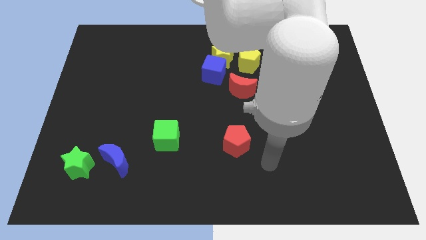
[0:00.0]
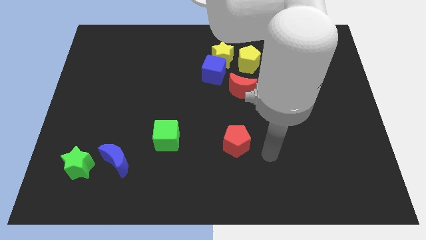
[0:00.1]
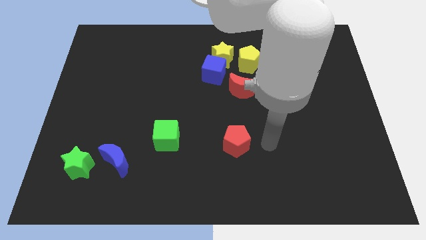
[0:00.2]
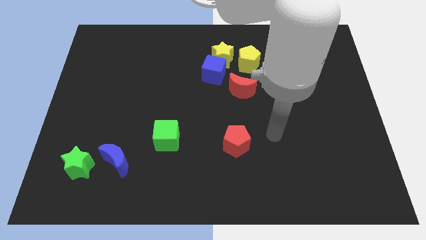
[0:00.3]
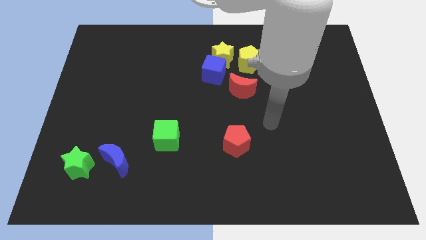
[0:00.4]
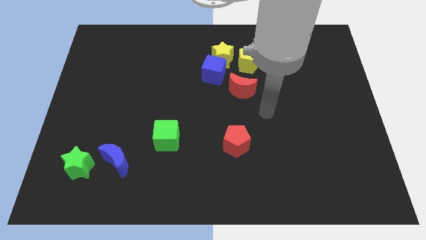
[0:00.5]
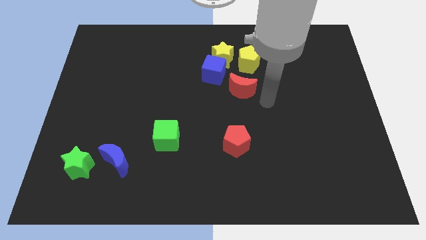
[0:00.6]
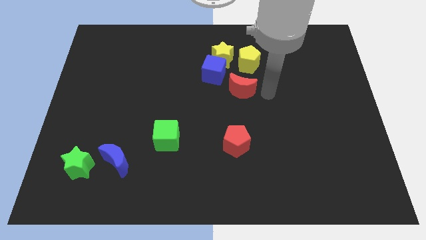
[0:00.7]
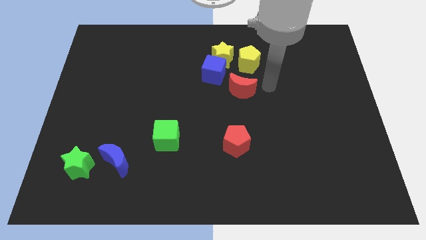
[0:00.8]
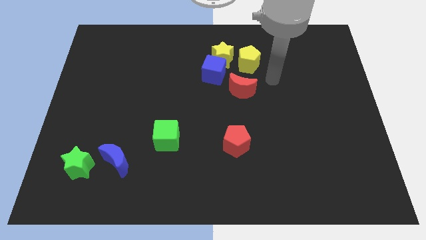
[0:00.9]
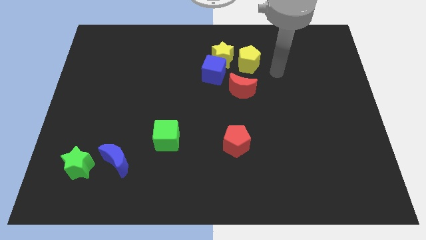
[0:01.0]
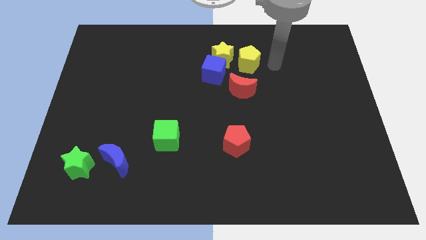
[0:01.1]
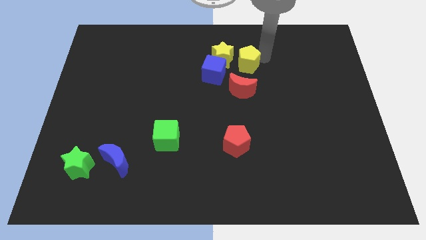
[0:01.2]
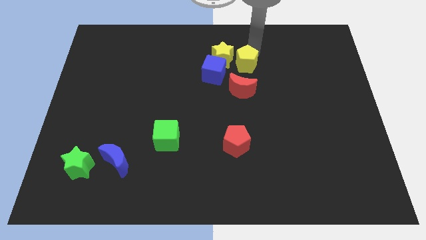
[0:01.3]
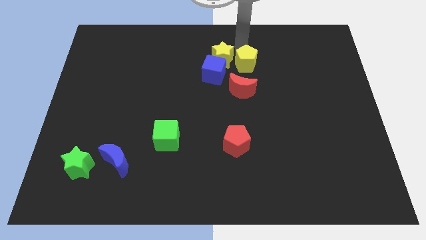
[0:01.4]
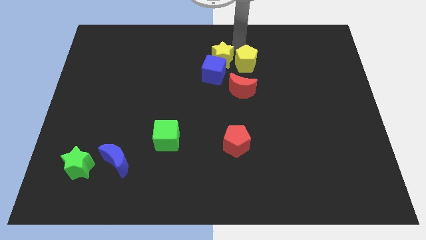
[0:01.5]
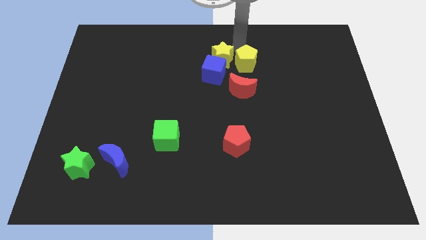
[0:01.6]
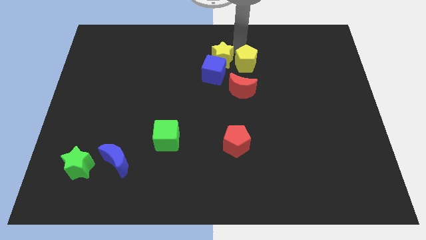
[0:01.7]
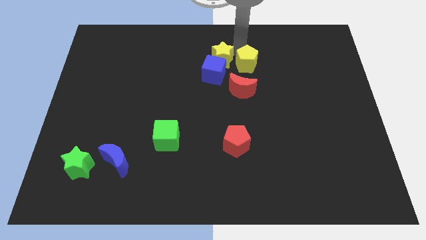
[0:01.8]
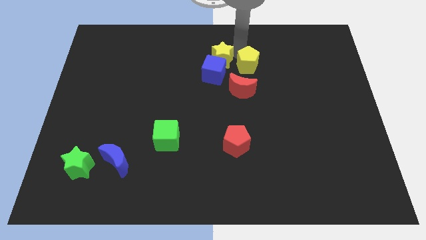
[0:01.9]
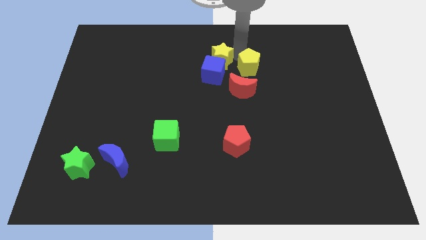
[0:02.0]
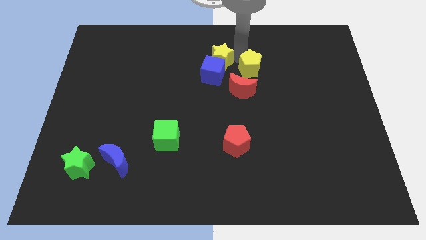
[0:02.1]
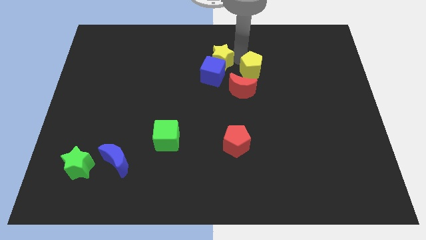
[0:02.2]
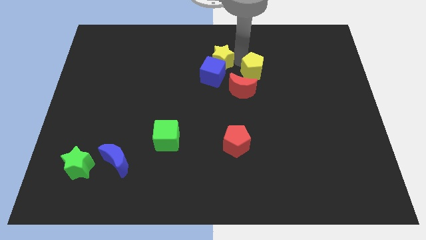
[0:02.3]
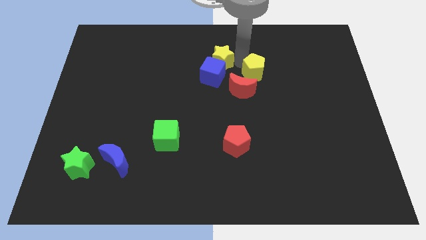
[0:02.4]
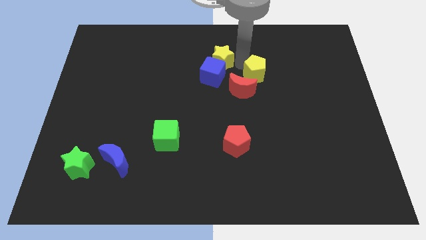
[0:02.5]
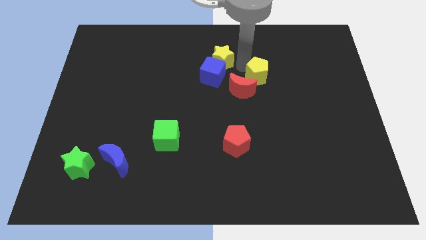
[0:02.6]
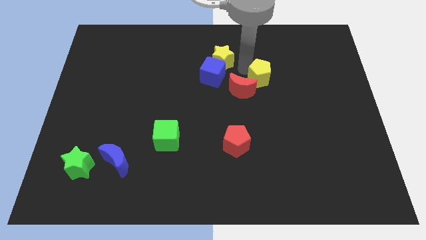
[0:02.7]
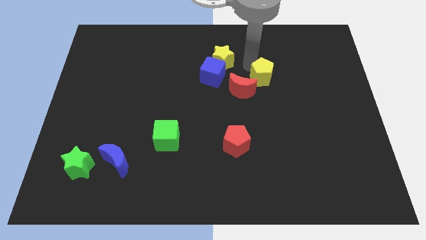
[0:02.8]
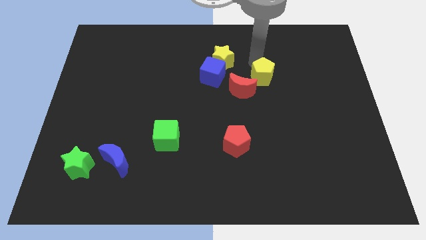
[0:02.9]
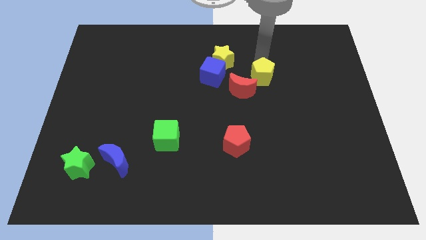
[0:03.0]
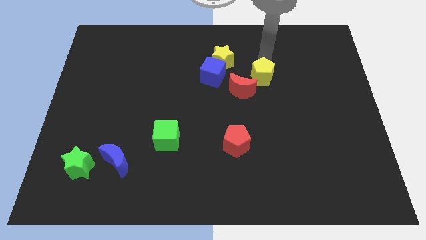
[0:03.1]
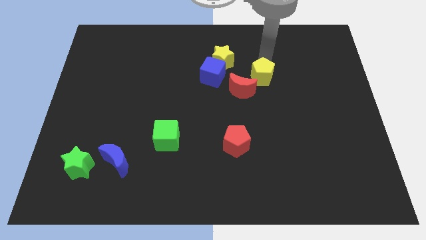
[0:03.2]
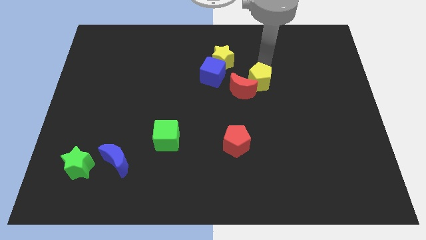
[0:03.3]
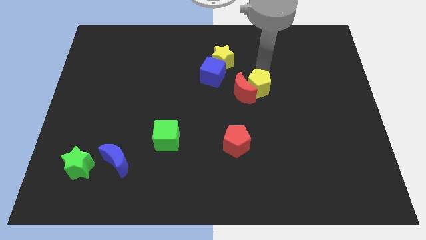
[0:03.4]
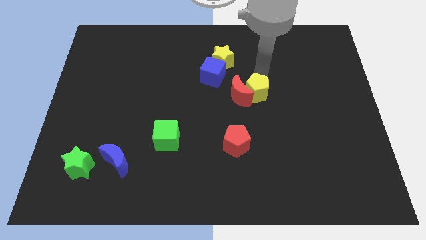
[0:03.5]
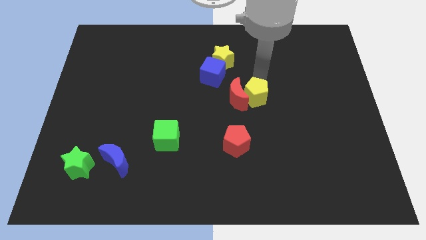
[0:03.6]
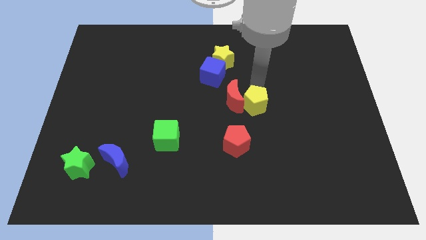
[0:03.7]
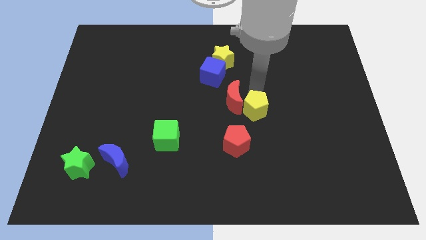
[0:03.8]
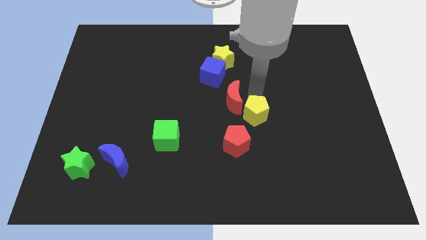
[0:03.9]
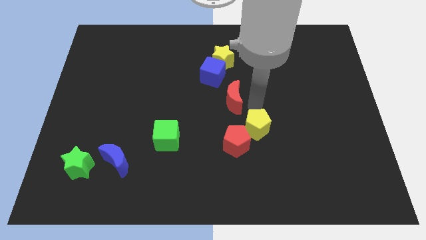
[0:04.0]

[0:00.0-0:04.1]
slide the yellow pentagon downwards

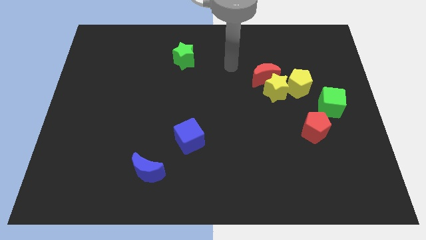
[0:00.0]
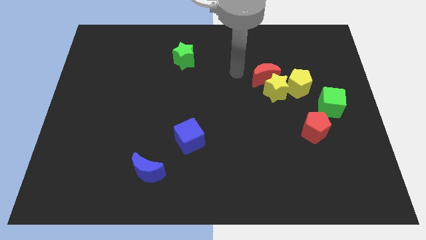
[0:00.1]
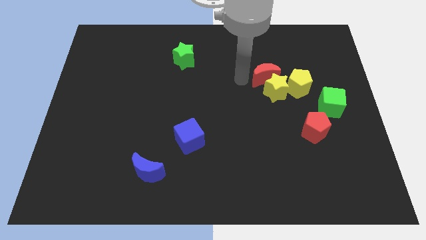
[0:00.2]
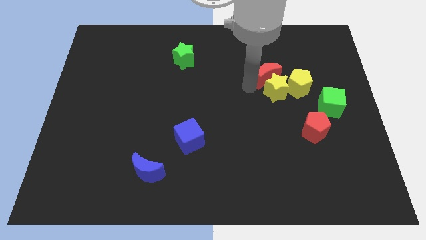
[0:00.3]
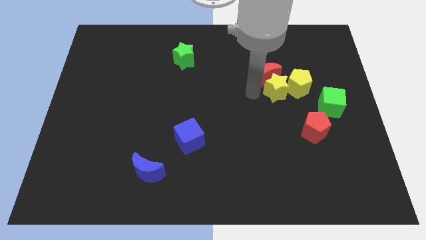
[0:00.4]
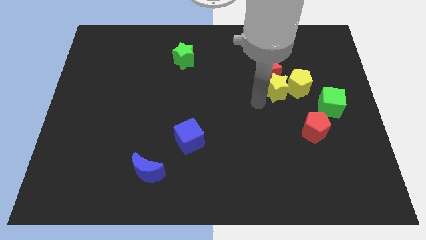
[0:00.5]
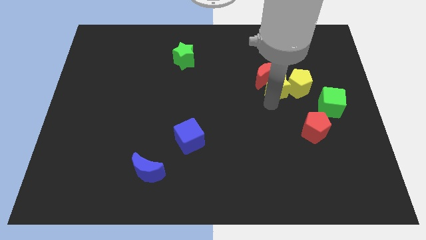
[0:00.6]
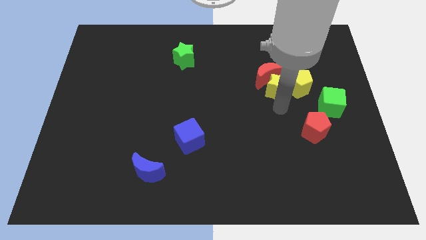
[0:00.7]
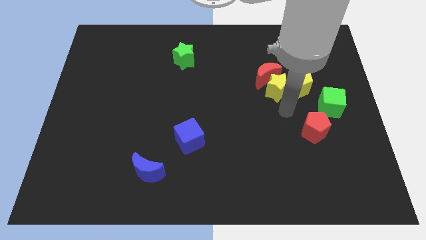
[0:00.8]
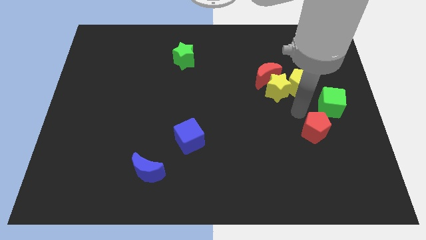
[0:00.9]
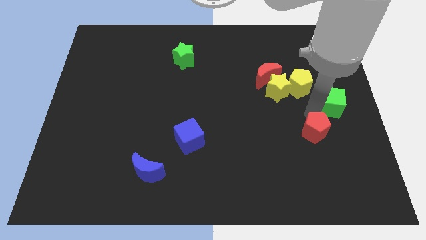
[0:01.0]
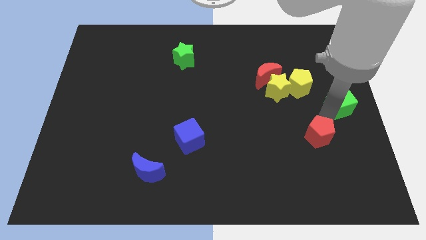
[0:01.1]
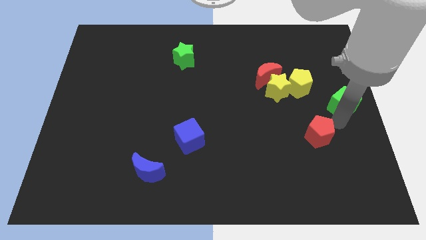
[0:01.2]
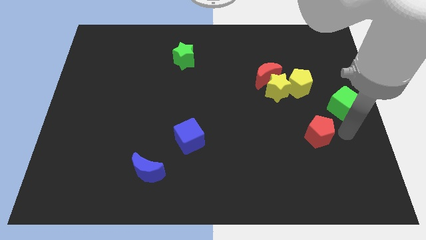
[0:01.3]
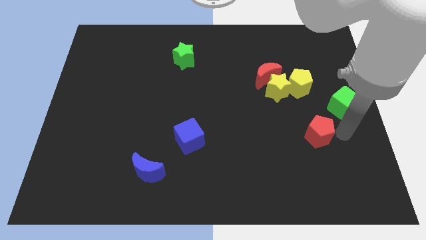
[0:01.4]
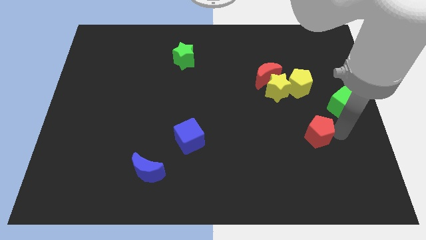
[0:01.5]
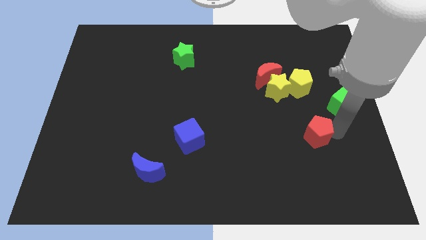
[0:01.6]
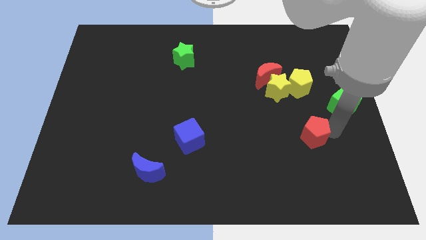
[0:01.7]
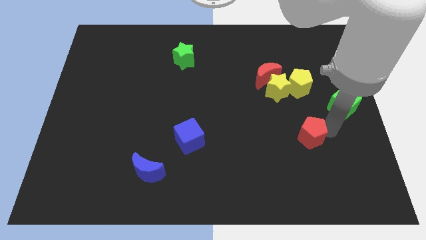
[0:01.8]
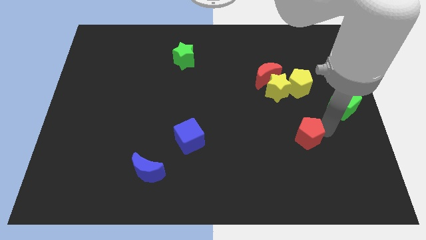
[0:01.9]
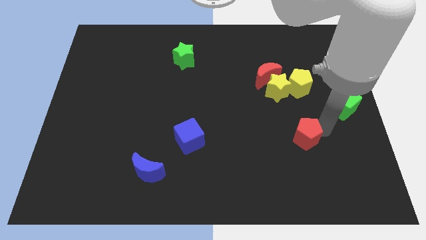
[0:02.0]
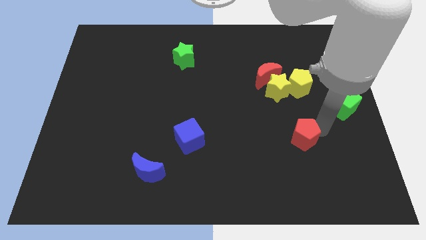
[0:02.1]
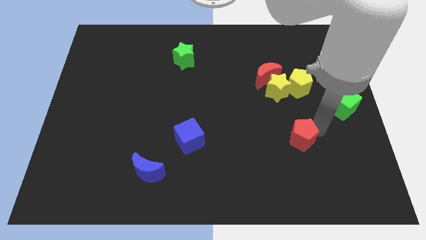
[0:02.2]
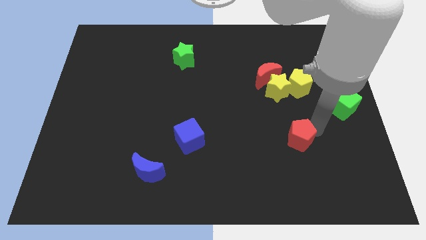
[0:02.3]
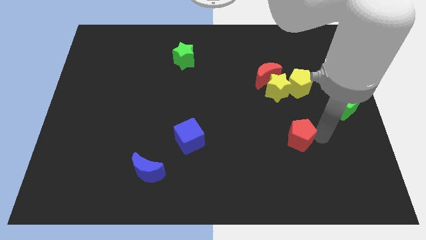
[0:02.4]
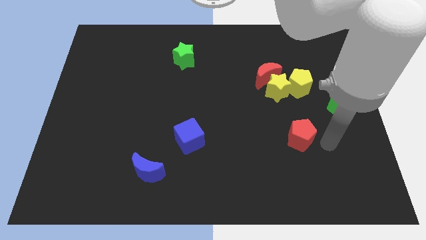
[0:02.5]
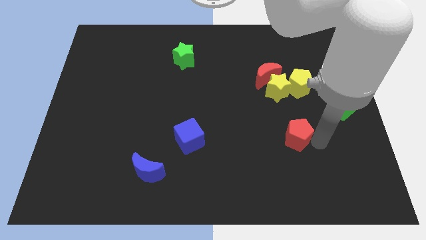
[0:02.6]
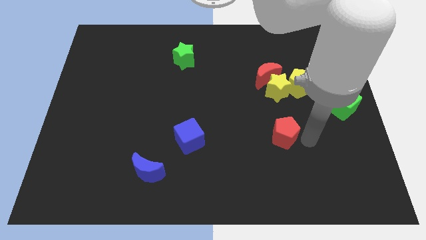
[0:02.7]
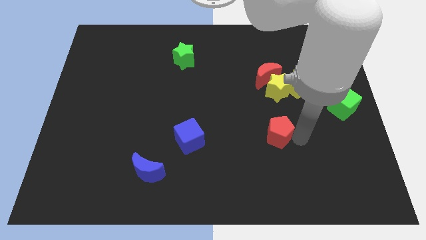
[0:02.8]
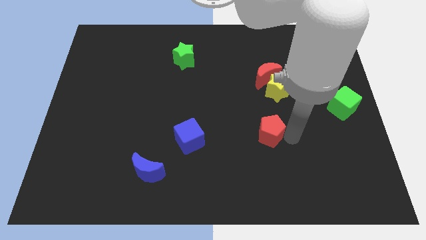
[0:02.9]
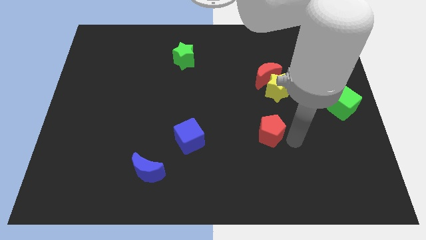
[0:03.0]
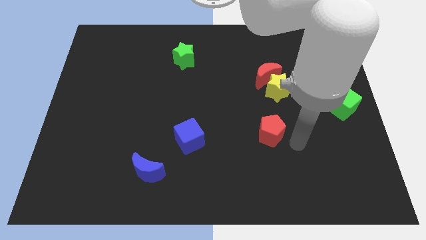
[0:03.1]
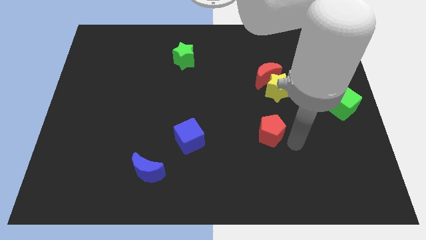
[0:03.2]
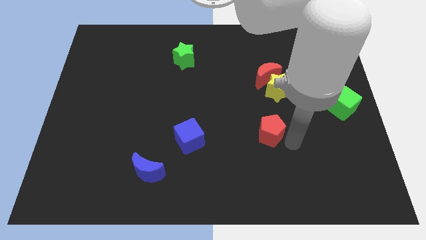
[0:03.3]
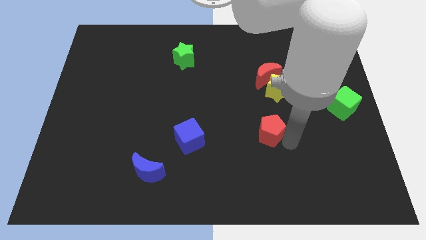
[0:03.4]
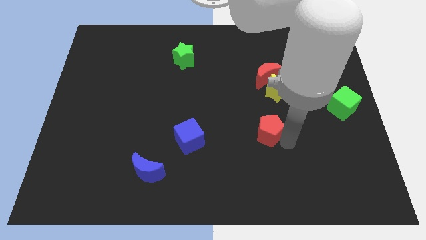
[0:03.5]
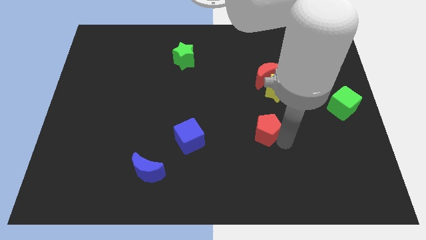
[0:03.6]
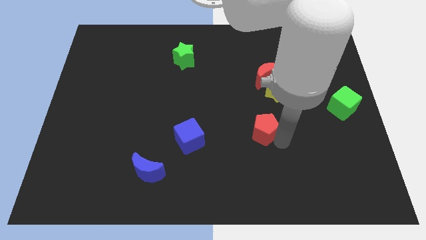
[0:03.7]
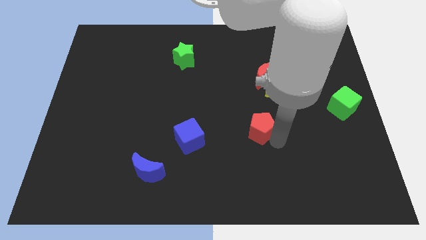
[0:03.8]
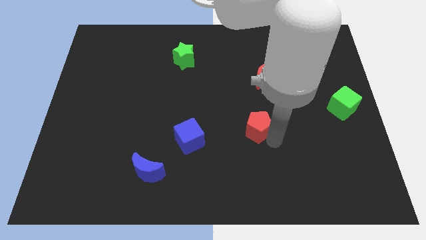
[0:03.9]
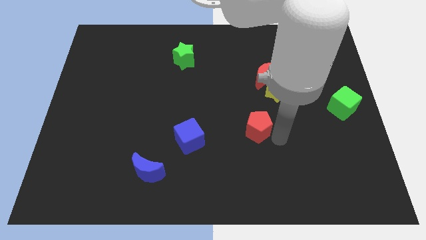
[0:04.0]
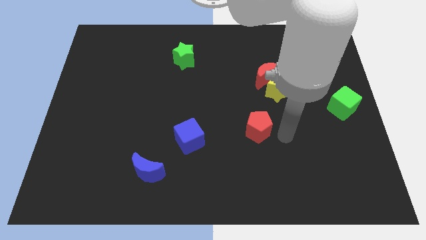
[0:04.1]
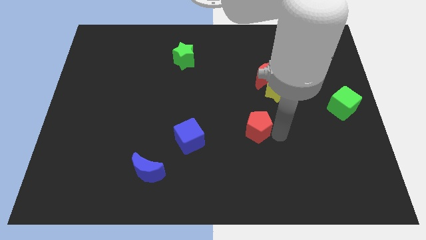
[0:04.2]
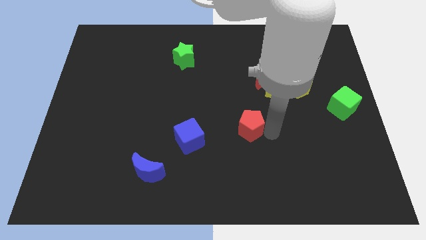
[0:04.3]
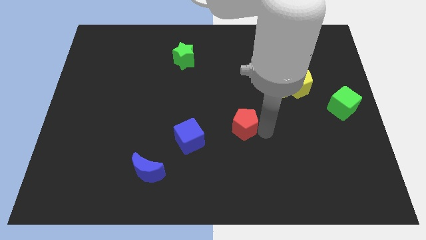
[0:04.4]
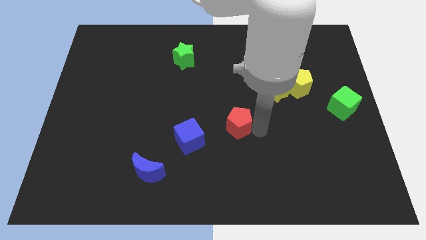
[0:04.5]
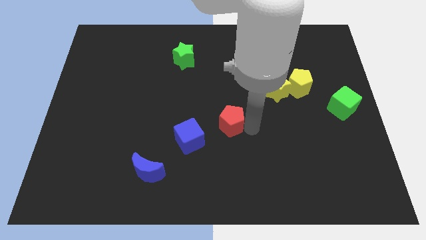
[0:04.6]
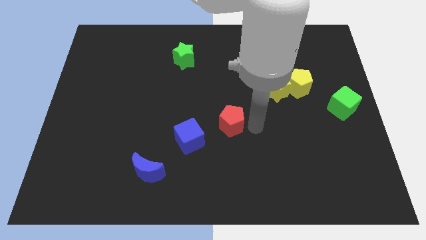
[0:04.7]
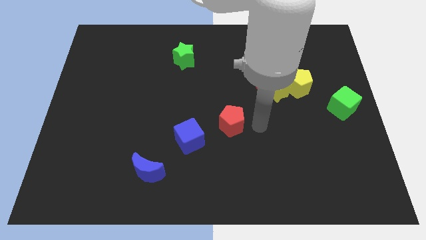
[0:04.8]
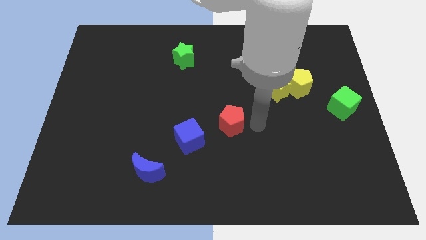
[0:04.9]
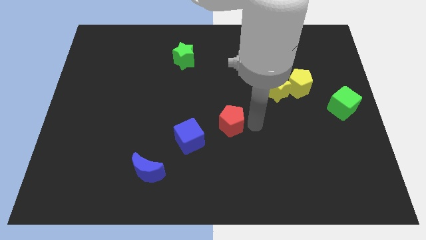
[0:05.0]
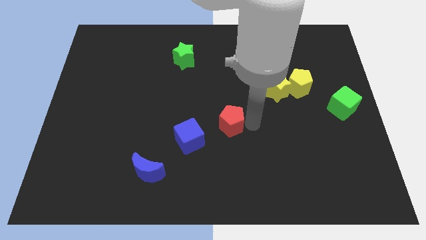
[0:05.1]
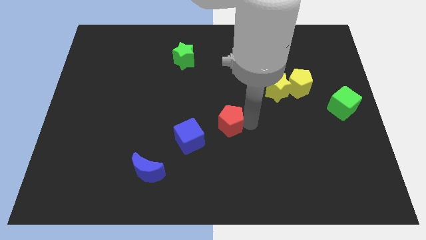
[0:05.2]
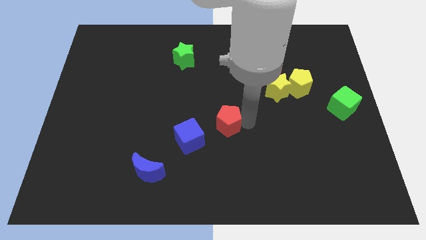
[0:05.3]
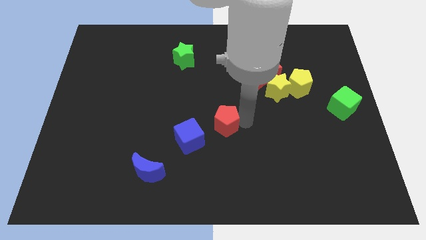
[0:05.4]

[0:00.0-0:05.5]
move the red pentagon left
